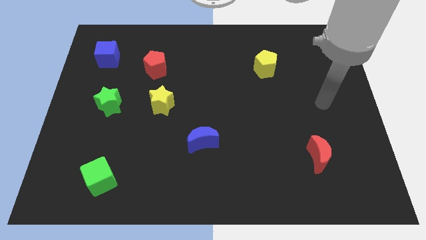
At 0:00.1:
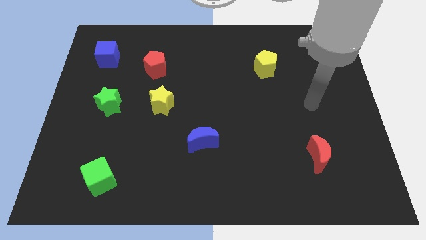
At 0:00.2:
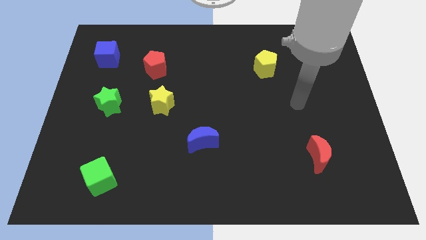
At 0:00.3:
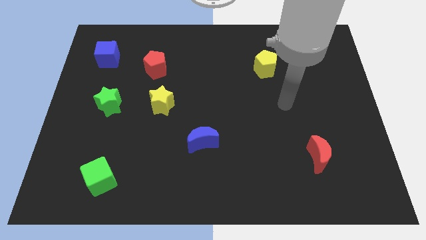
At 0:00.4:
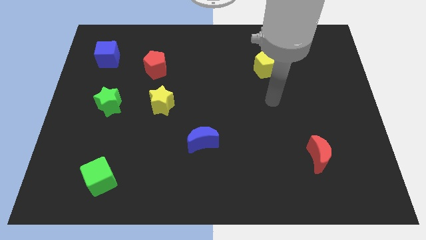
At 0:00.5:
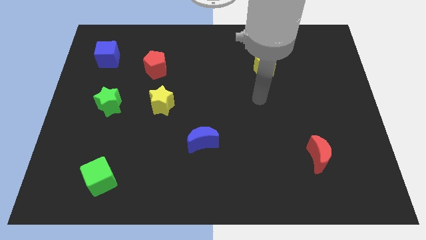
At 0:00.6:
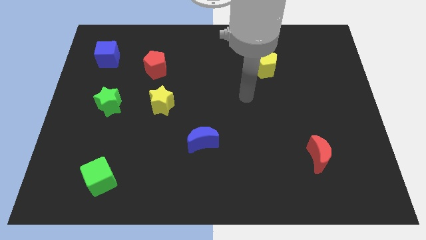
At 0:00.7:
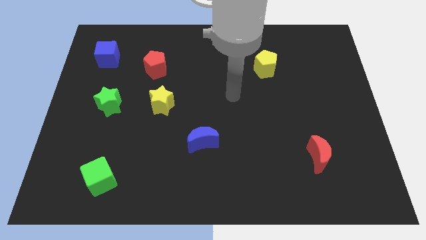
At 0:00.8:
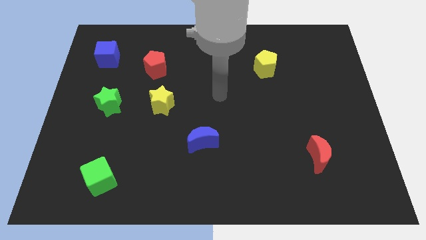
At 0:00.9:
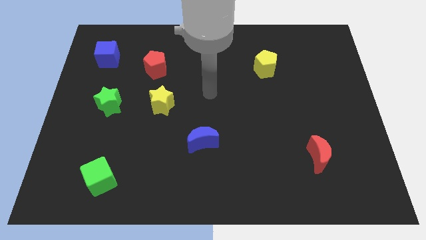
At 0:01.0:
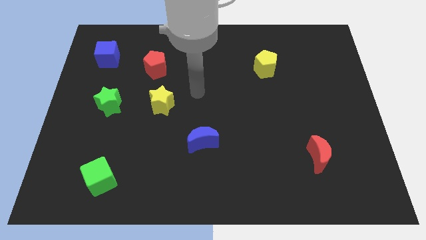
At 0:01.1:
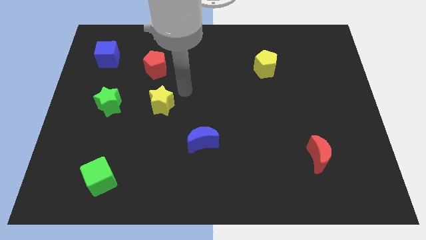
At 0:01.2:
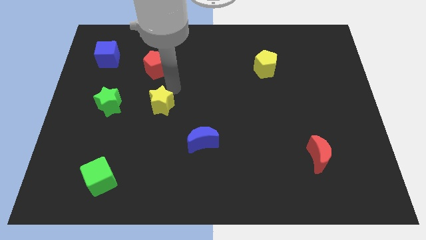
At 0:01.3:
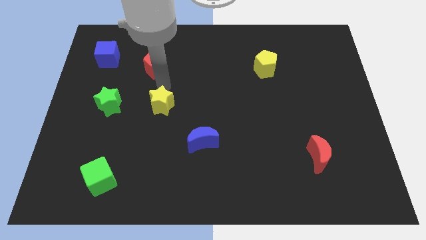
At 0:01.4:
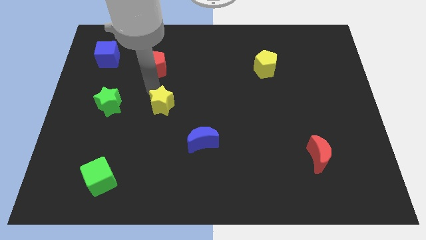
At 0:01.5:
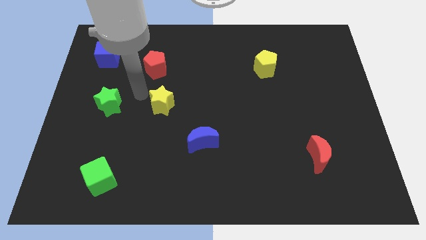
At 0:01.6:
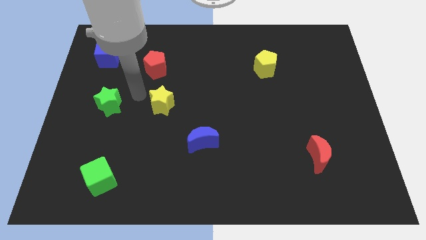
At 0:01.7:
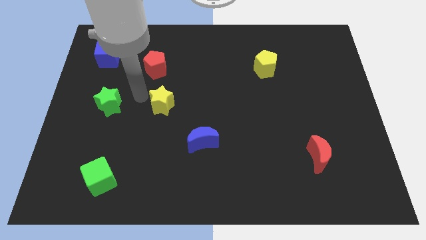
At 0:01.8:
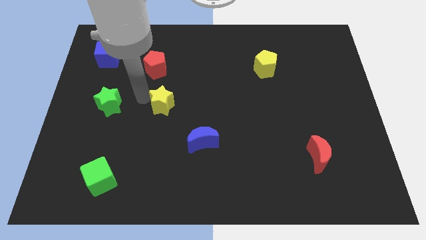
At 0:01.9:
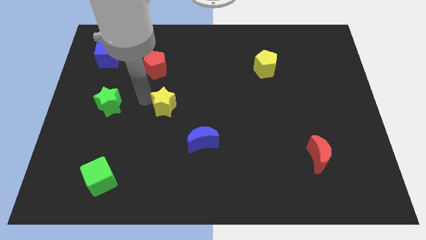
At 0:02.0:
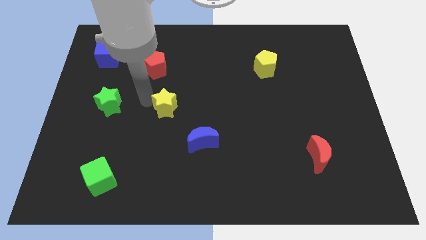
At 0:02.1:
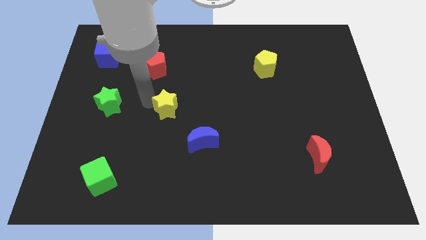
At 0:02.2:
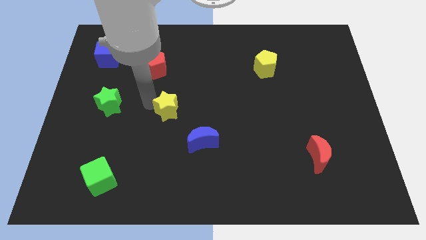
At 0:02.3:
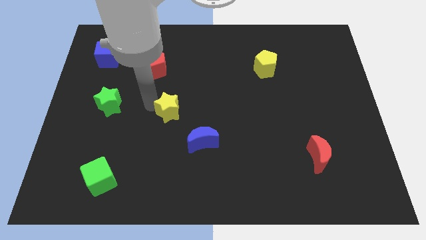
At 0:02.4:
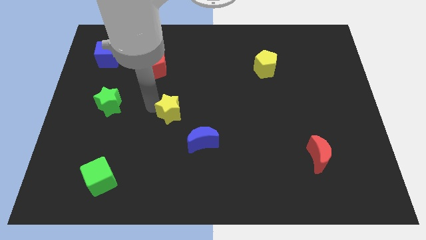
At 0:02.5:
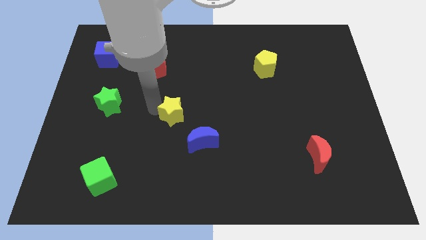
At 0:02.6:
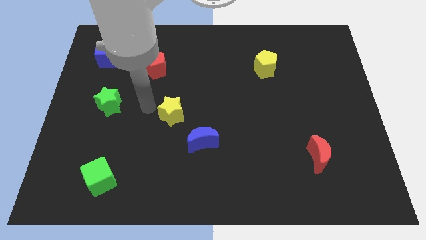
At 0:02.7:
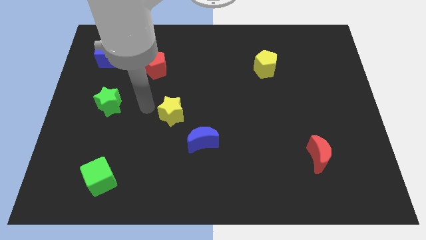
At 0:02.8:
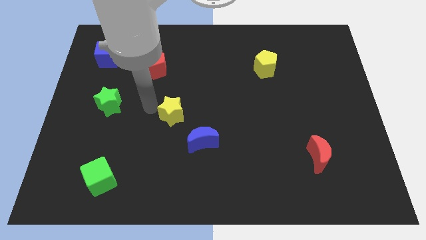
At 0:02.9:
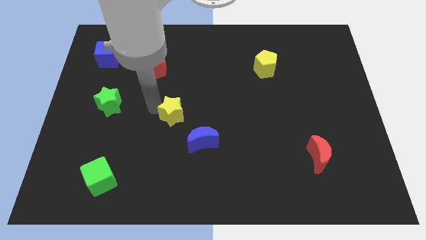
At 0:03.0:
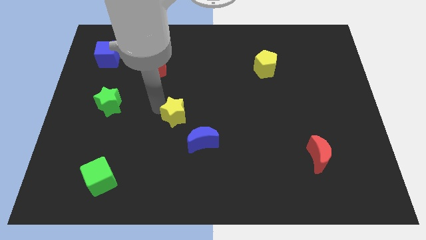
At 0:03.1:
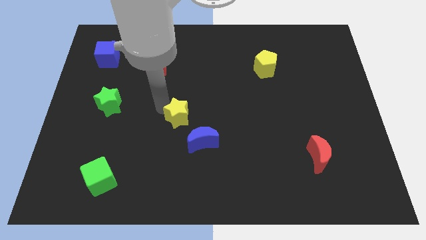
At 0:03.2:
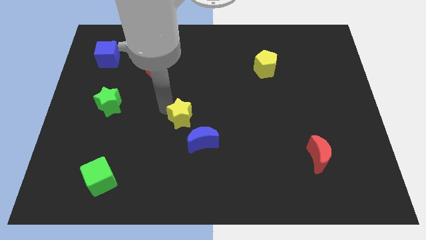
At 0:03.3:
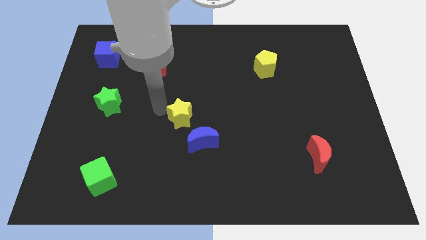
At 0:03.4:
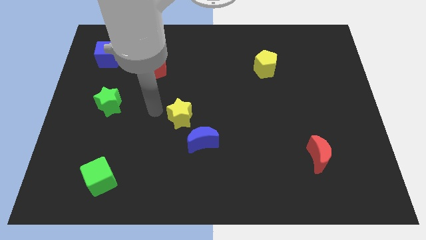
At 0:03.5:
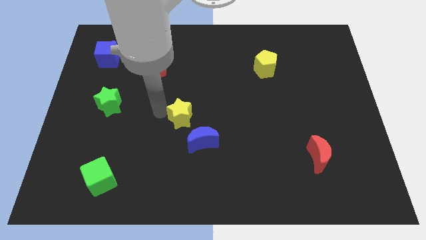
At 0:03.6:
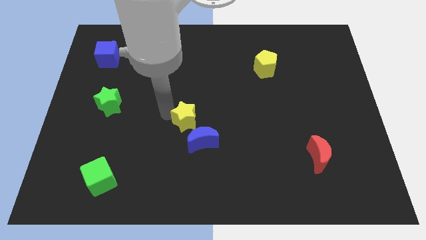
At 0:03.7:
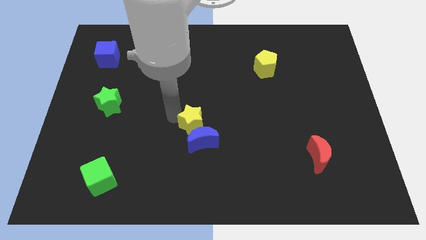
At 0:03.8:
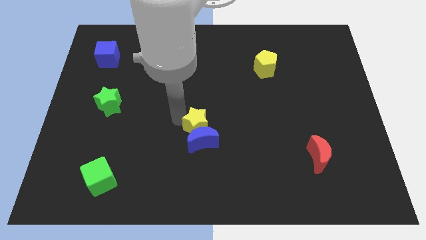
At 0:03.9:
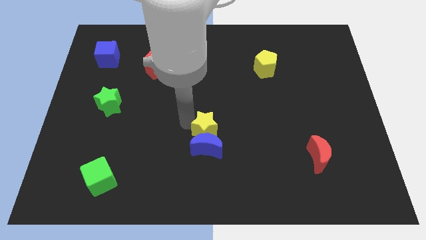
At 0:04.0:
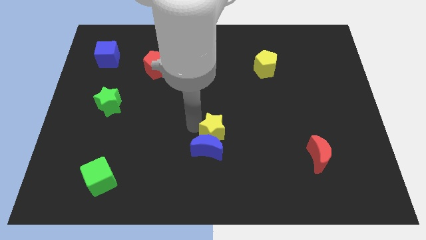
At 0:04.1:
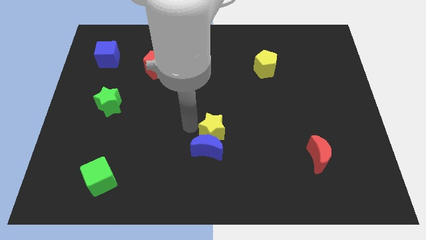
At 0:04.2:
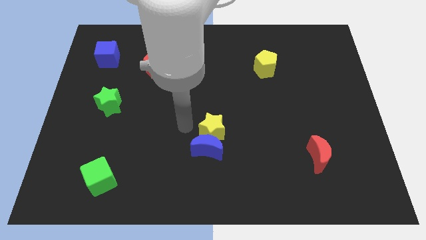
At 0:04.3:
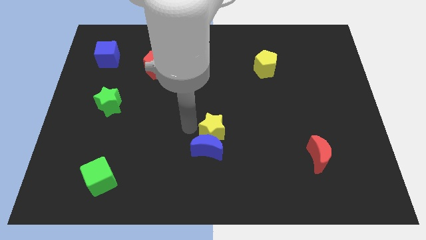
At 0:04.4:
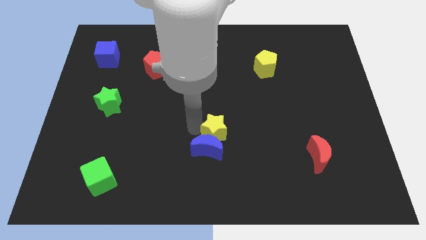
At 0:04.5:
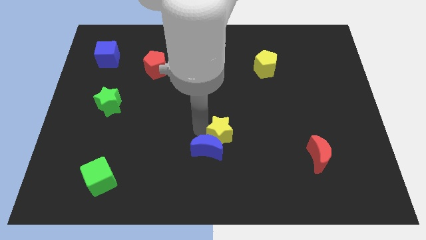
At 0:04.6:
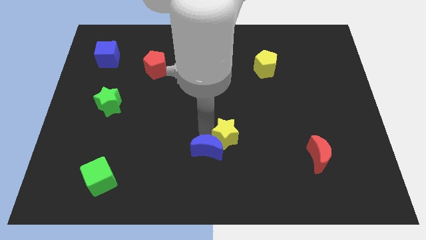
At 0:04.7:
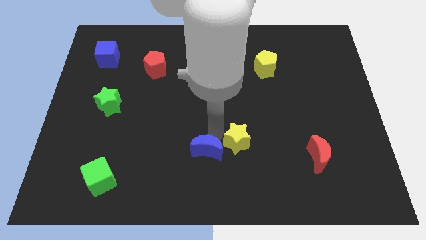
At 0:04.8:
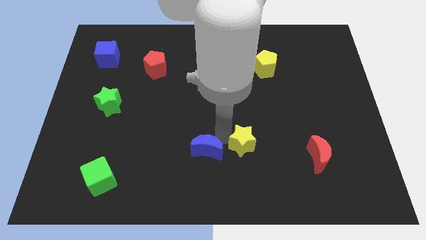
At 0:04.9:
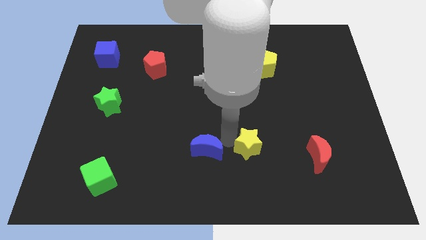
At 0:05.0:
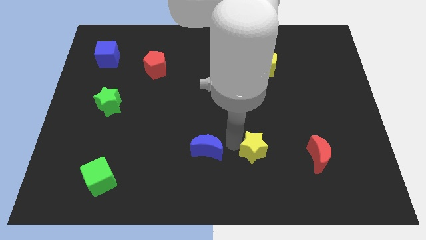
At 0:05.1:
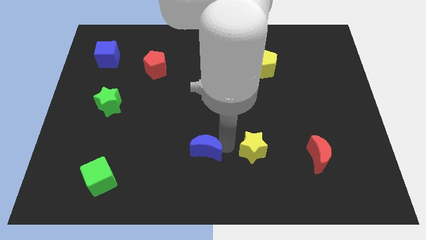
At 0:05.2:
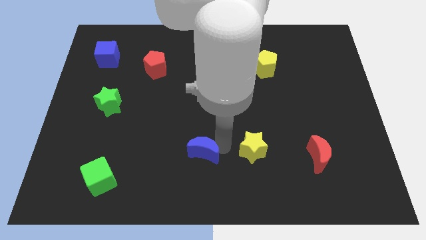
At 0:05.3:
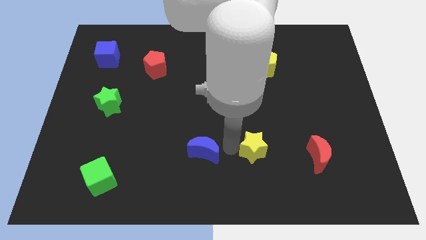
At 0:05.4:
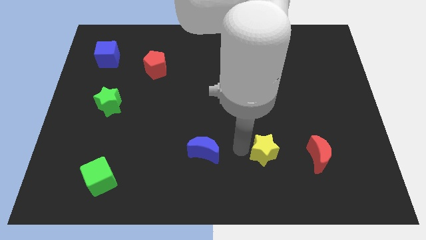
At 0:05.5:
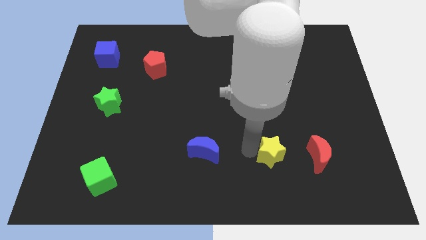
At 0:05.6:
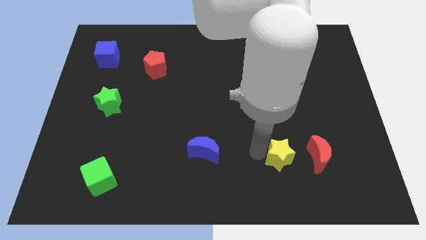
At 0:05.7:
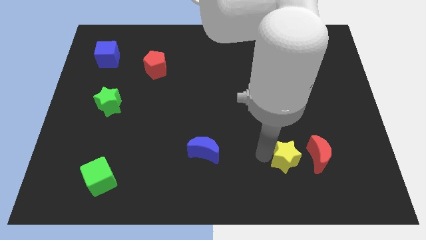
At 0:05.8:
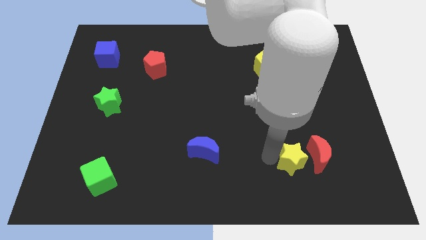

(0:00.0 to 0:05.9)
slide the yellow star to the red moon

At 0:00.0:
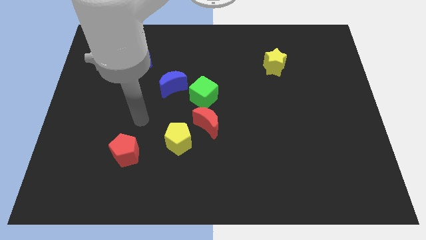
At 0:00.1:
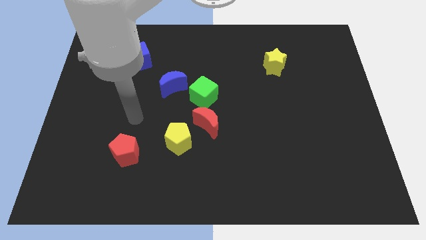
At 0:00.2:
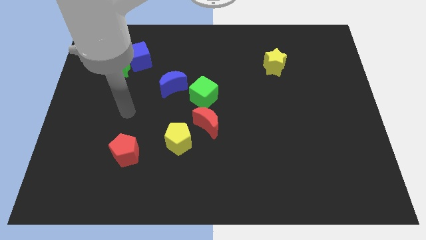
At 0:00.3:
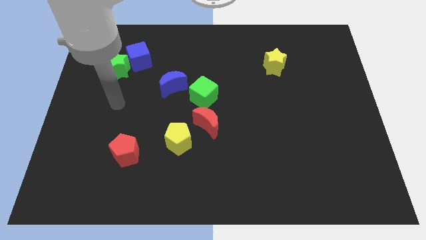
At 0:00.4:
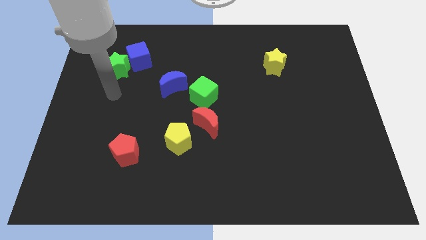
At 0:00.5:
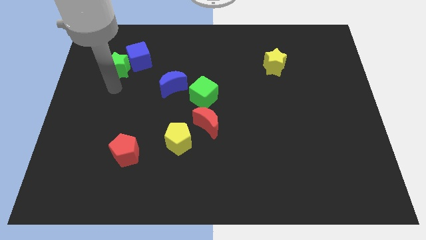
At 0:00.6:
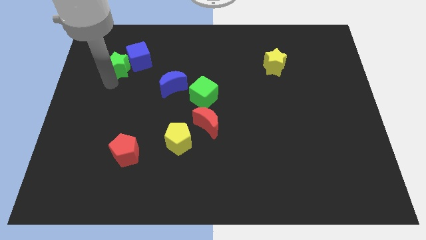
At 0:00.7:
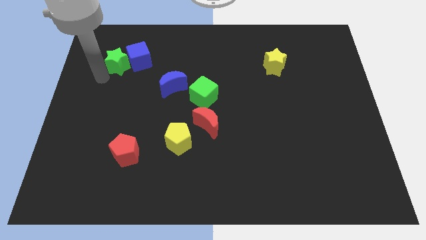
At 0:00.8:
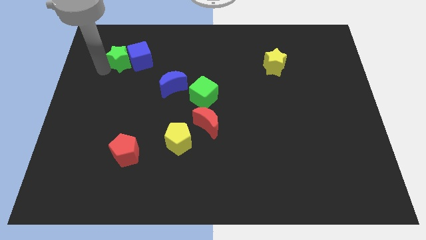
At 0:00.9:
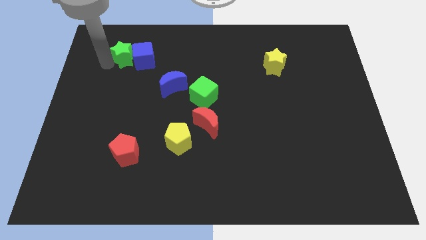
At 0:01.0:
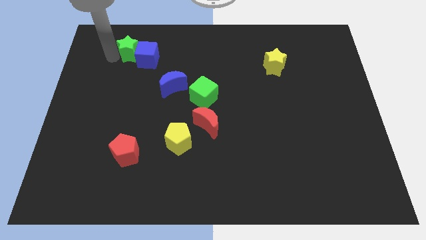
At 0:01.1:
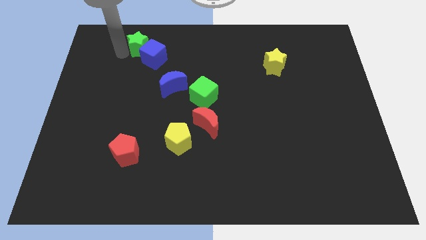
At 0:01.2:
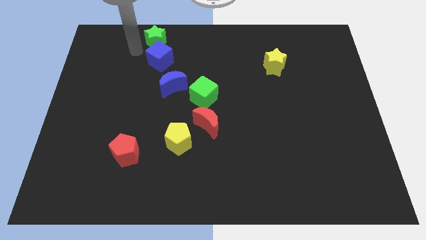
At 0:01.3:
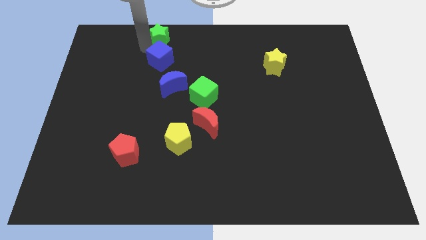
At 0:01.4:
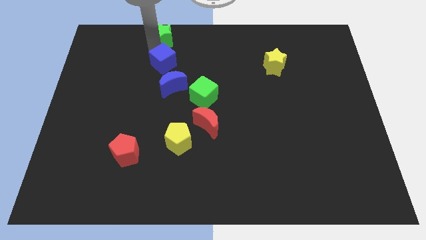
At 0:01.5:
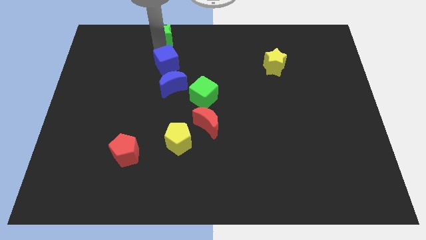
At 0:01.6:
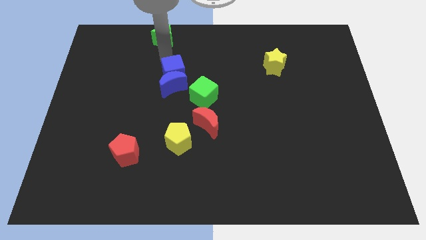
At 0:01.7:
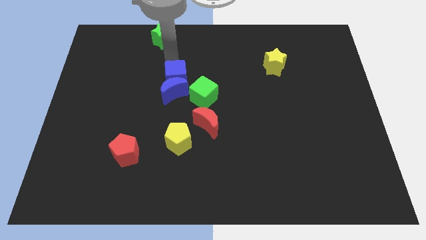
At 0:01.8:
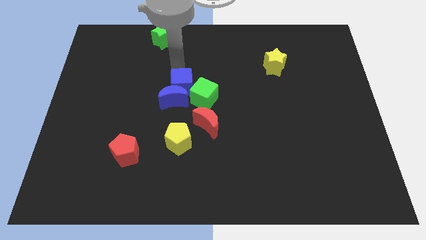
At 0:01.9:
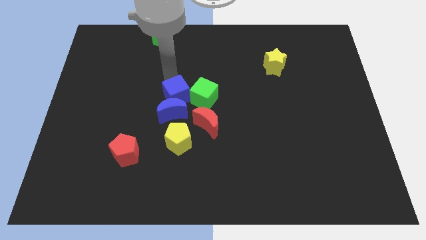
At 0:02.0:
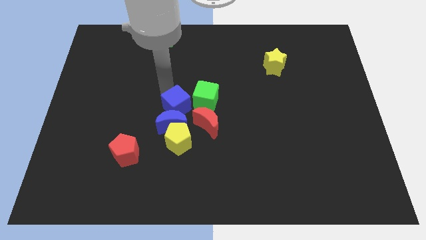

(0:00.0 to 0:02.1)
slide the blue moon towards the yellow pentagon

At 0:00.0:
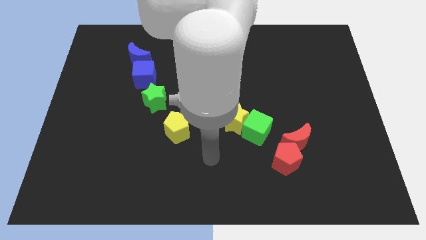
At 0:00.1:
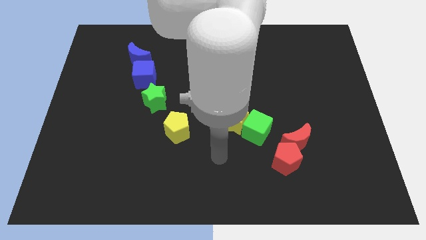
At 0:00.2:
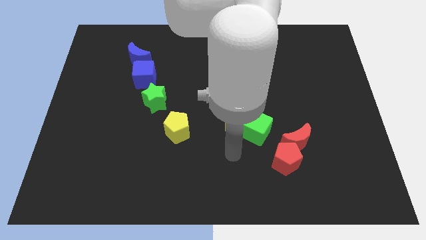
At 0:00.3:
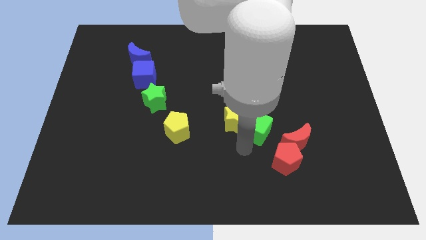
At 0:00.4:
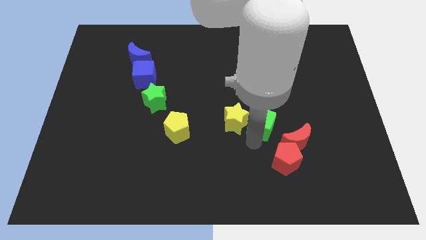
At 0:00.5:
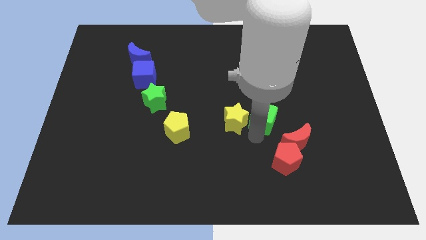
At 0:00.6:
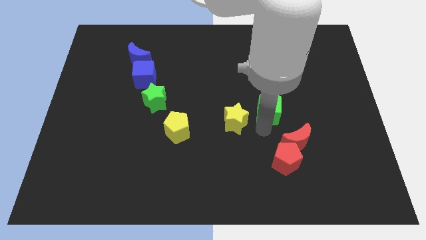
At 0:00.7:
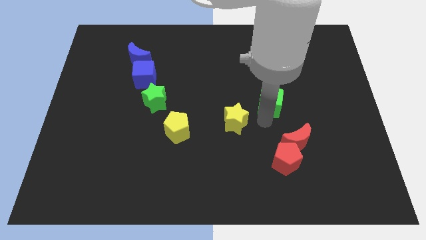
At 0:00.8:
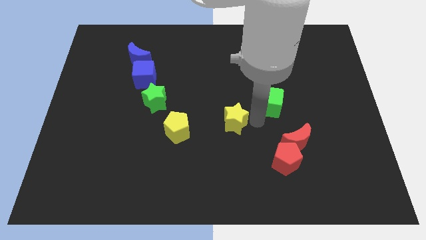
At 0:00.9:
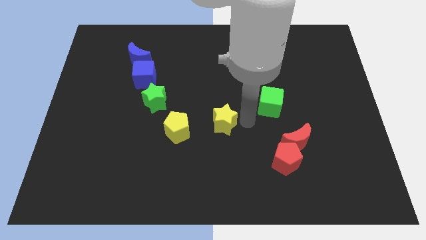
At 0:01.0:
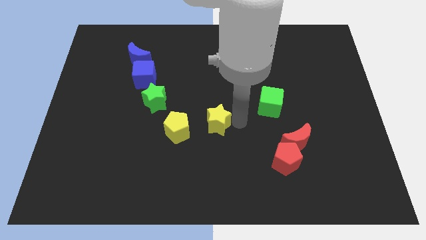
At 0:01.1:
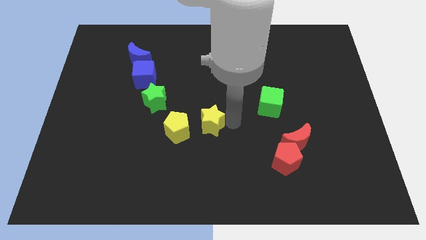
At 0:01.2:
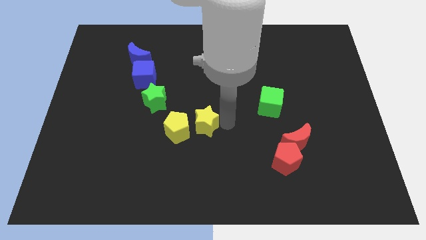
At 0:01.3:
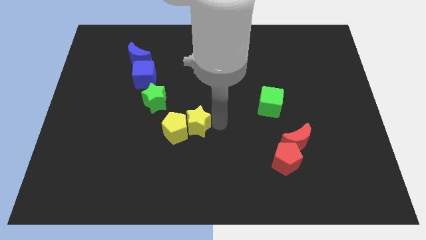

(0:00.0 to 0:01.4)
put the yellow star towards the yellow pentagon
